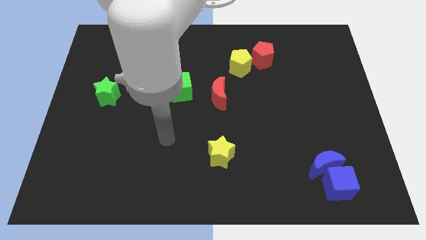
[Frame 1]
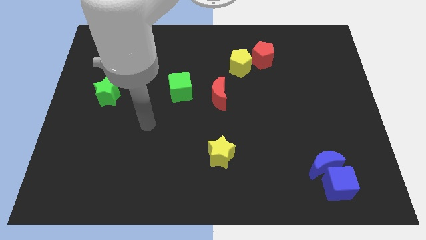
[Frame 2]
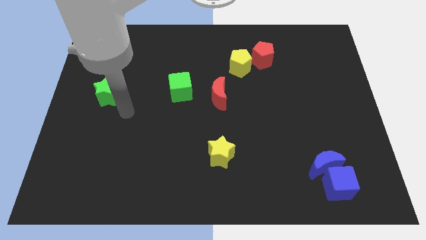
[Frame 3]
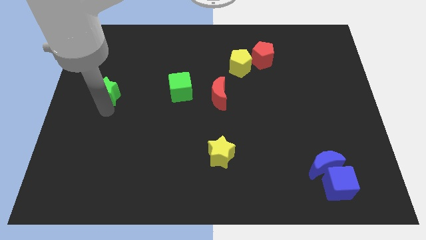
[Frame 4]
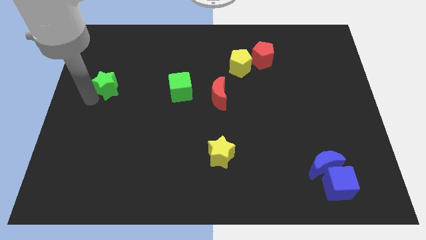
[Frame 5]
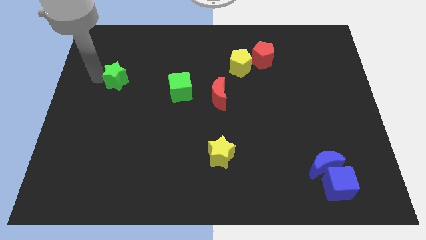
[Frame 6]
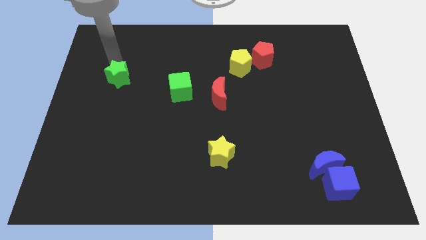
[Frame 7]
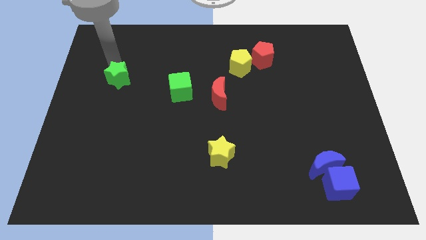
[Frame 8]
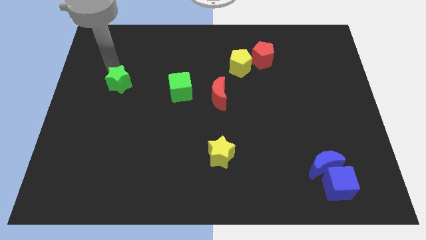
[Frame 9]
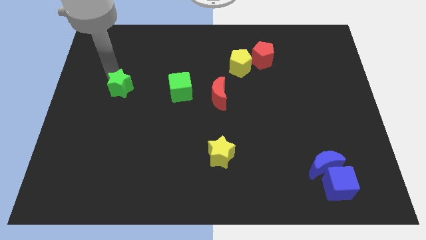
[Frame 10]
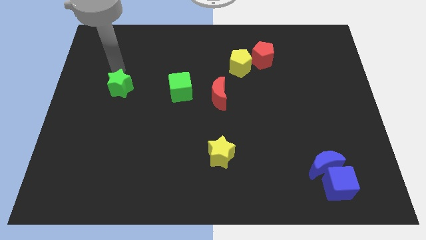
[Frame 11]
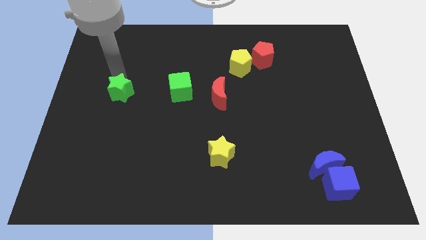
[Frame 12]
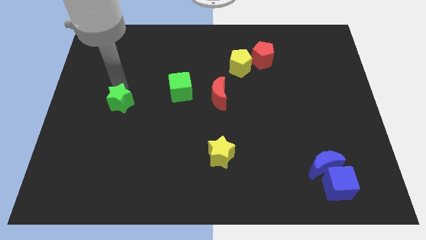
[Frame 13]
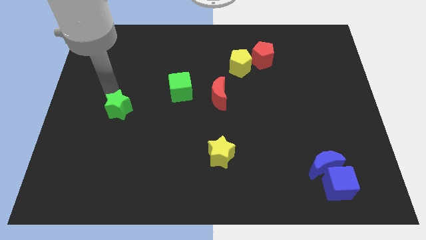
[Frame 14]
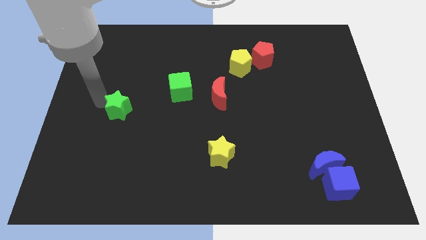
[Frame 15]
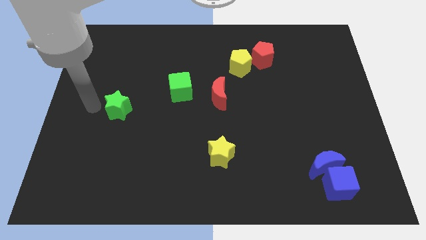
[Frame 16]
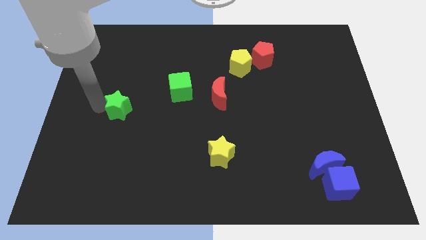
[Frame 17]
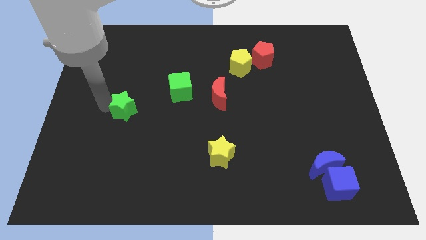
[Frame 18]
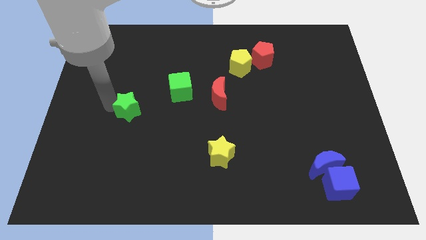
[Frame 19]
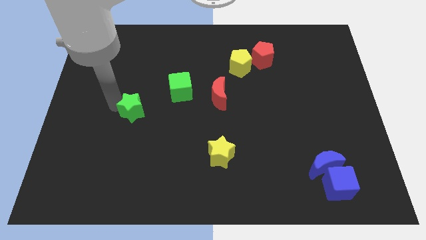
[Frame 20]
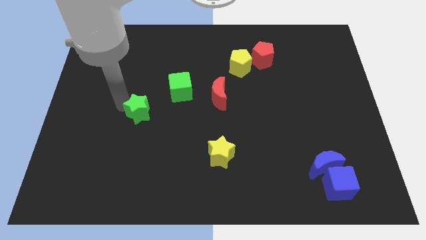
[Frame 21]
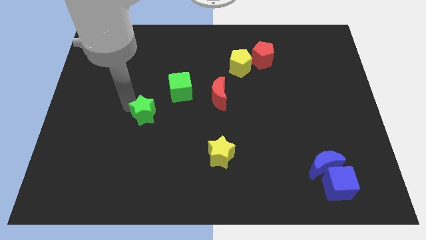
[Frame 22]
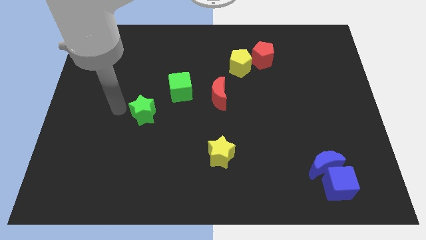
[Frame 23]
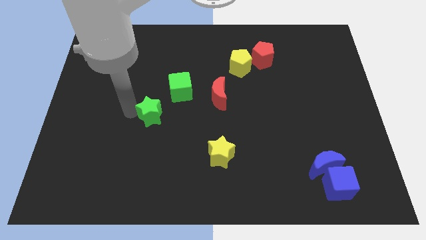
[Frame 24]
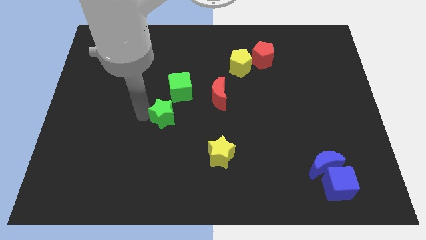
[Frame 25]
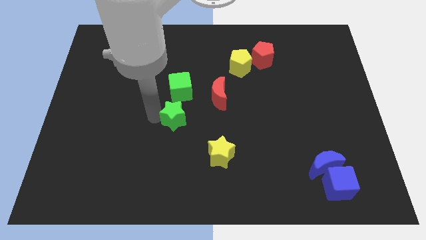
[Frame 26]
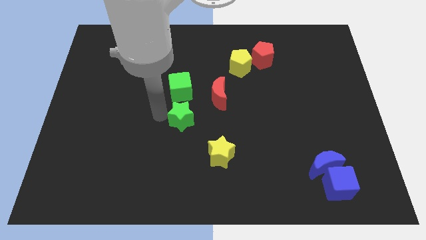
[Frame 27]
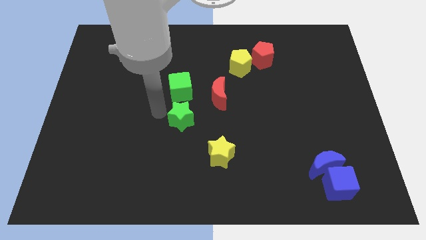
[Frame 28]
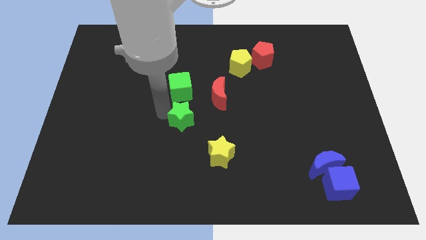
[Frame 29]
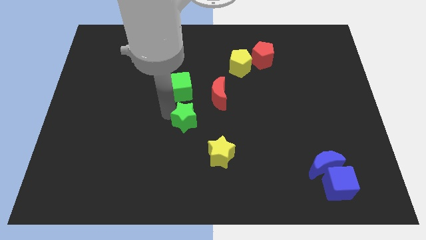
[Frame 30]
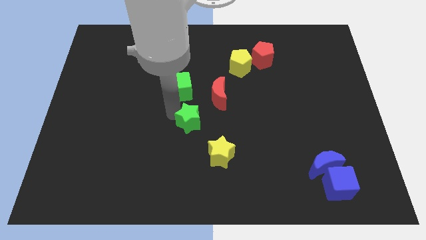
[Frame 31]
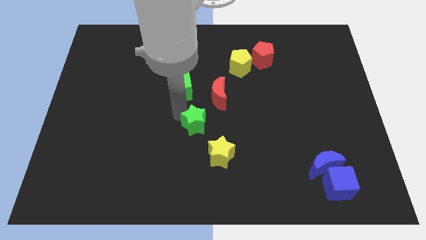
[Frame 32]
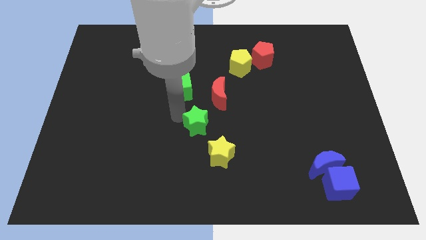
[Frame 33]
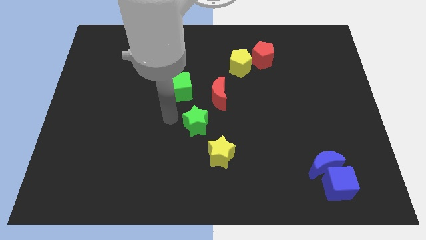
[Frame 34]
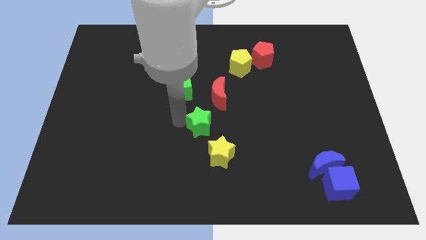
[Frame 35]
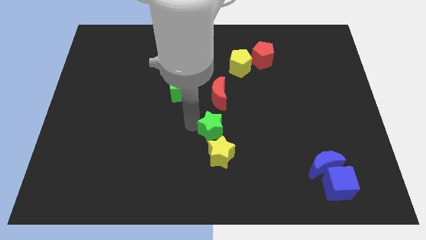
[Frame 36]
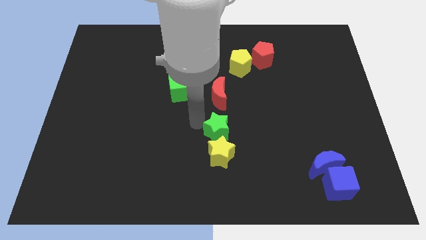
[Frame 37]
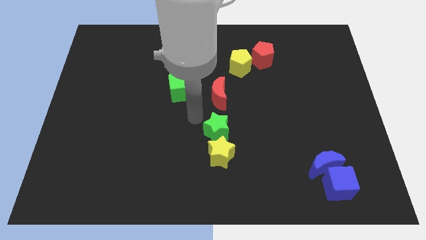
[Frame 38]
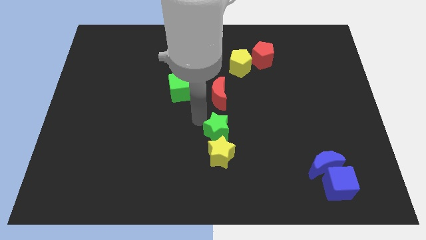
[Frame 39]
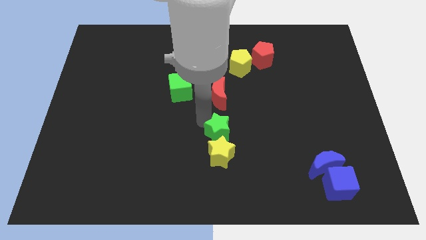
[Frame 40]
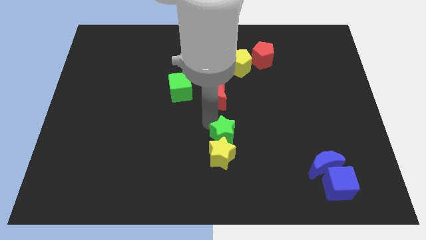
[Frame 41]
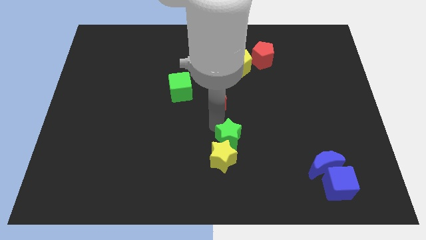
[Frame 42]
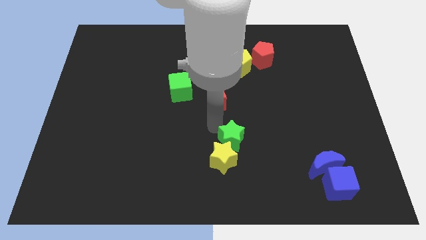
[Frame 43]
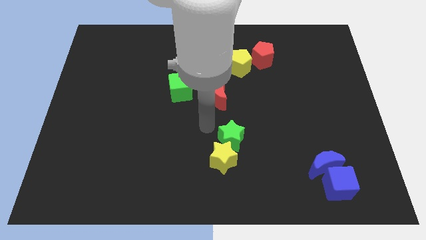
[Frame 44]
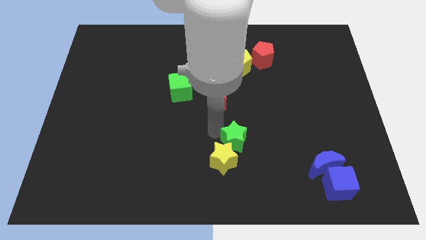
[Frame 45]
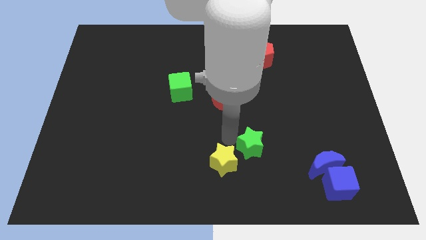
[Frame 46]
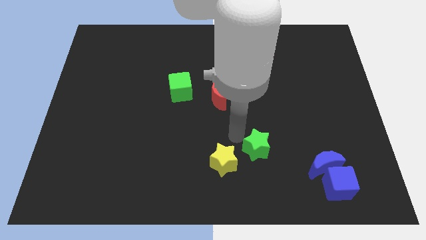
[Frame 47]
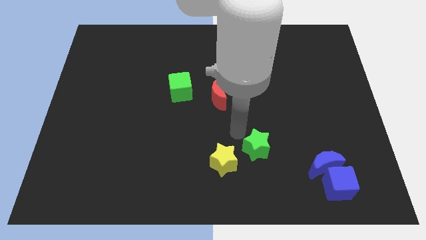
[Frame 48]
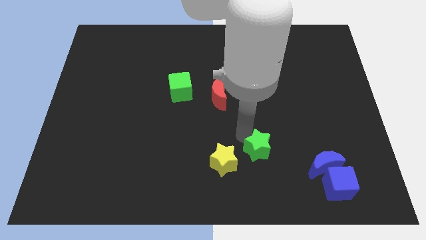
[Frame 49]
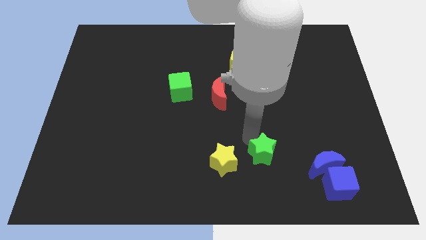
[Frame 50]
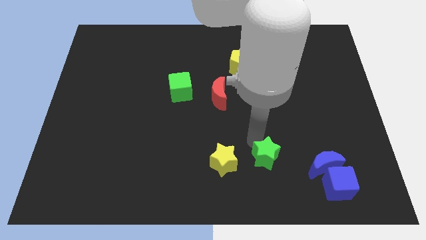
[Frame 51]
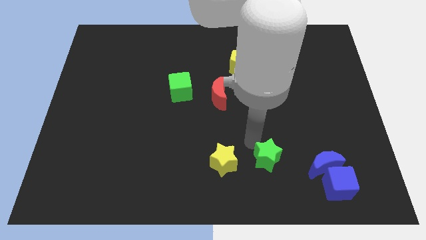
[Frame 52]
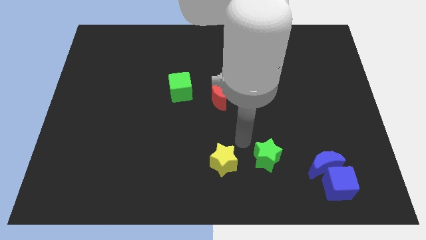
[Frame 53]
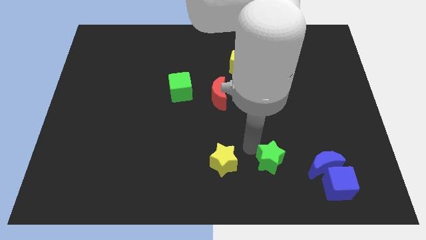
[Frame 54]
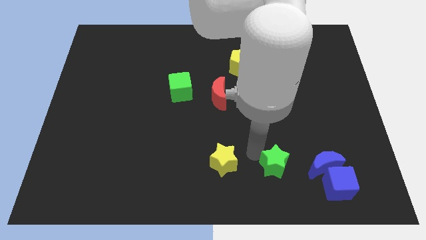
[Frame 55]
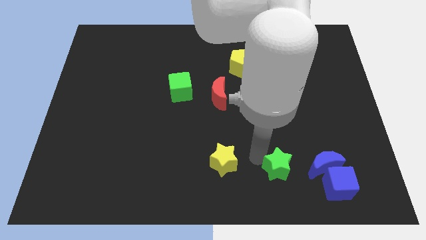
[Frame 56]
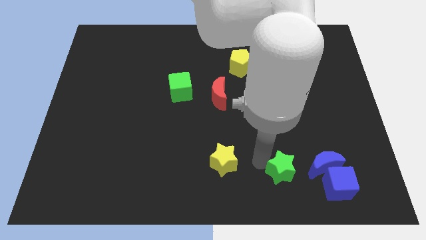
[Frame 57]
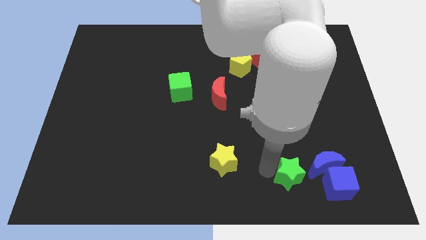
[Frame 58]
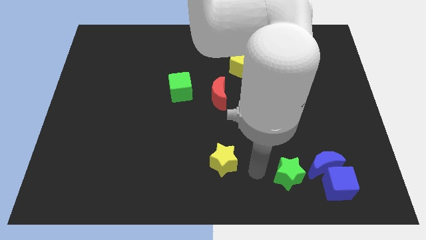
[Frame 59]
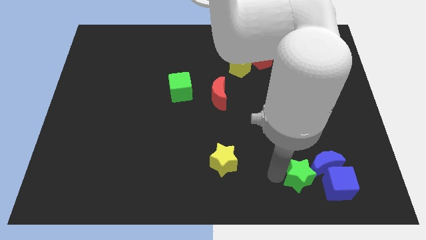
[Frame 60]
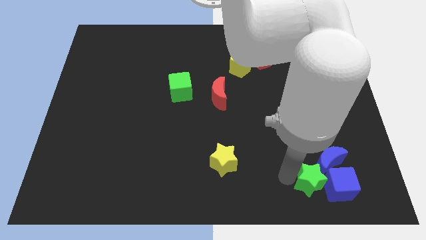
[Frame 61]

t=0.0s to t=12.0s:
put the green star towards the blue cube

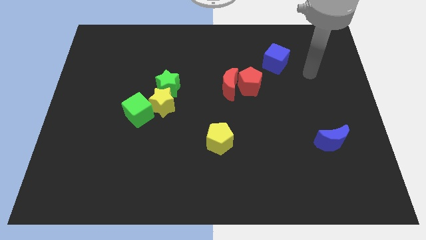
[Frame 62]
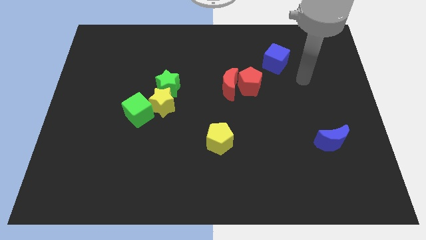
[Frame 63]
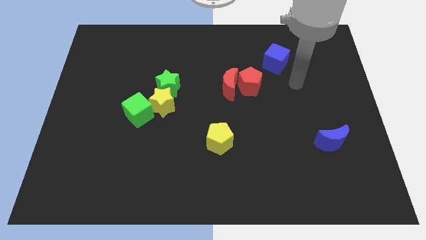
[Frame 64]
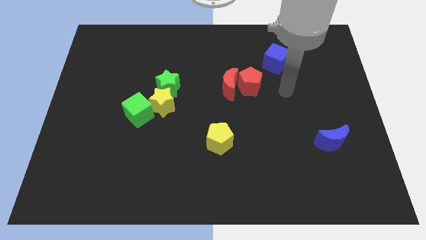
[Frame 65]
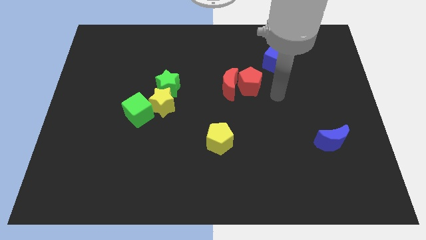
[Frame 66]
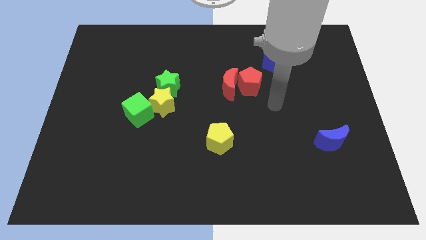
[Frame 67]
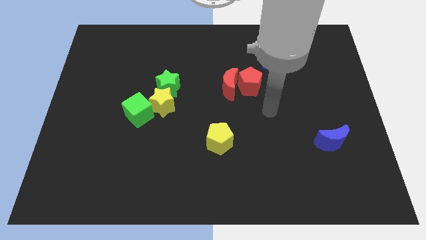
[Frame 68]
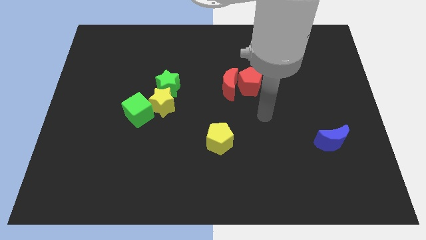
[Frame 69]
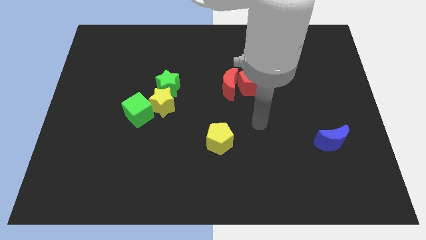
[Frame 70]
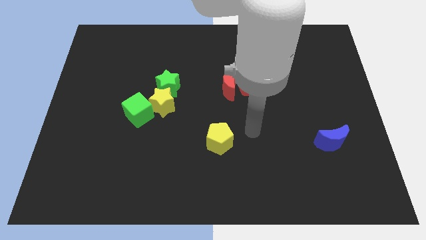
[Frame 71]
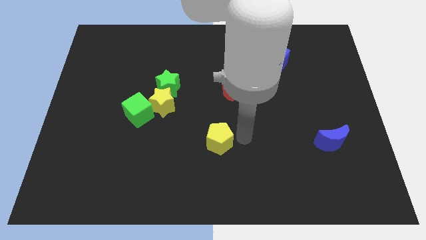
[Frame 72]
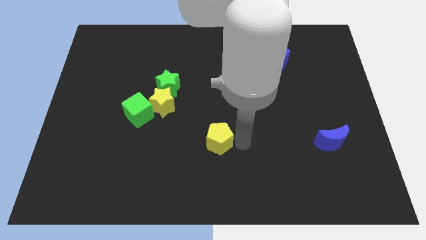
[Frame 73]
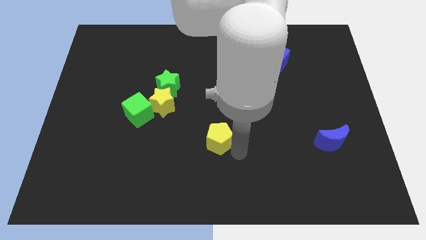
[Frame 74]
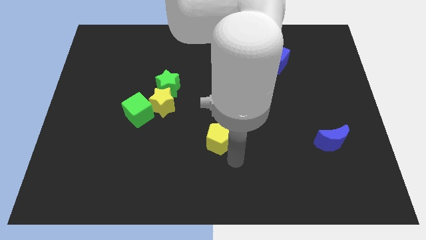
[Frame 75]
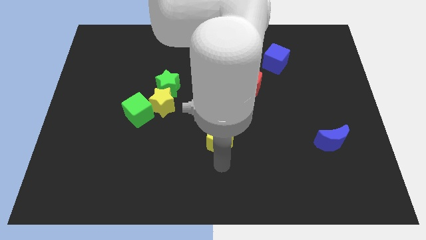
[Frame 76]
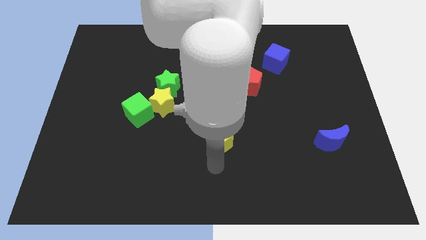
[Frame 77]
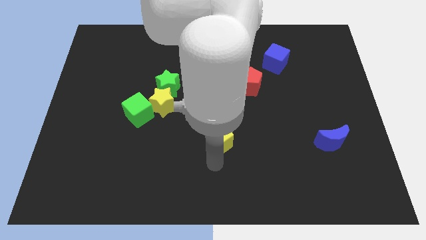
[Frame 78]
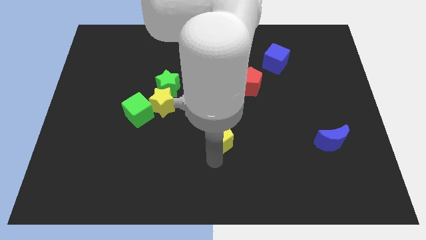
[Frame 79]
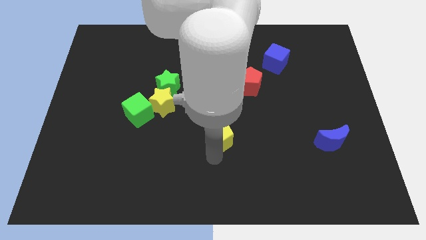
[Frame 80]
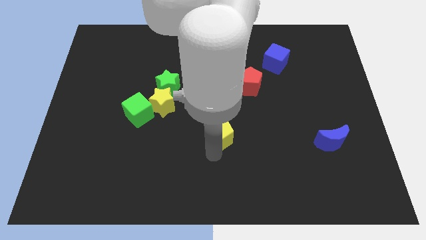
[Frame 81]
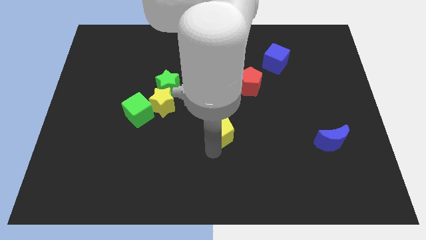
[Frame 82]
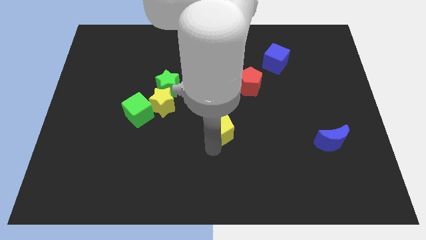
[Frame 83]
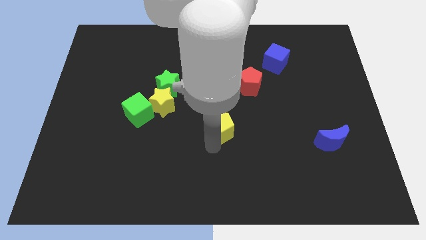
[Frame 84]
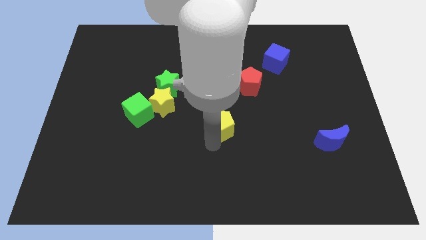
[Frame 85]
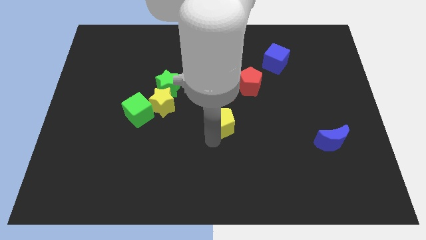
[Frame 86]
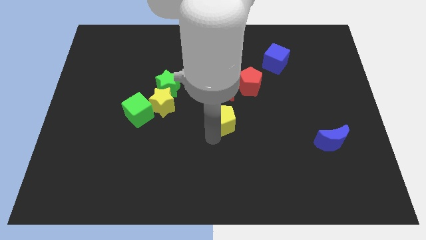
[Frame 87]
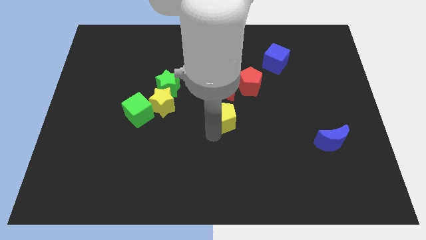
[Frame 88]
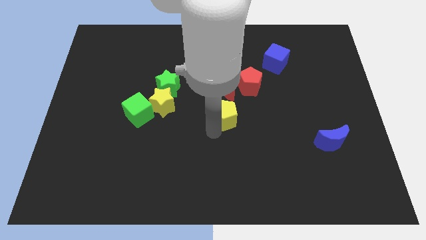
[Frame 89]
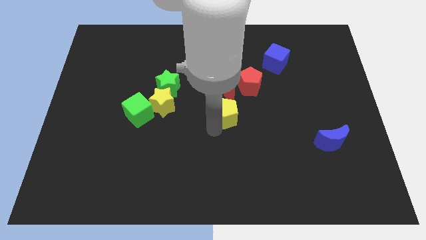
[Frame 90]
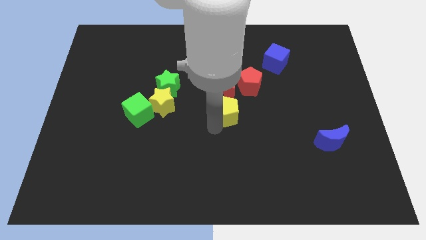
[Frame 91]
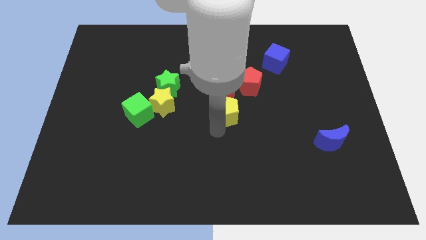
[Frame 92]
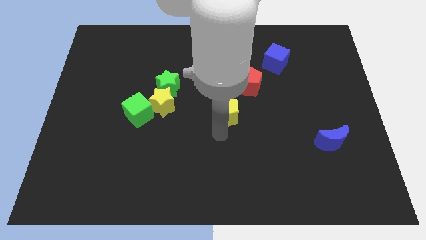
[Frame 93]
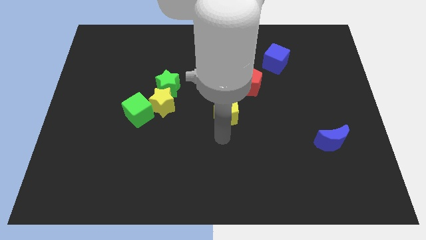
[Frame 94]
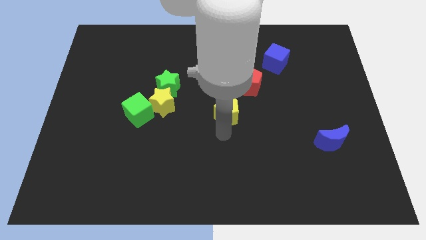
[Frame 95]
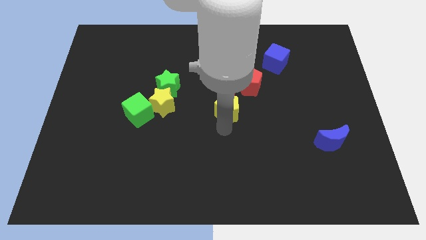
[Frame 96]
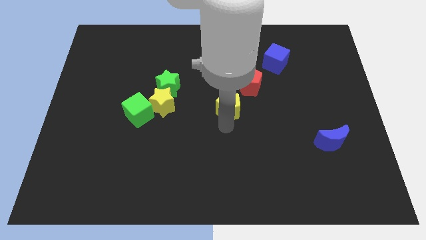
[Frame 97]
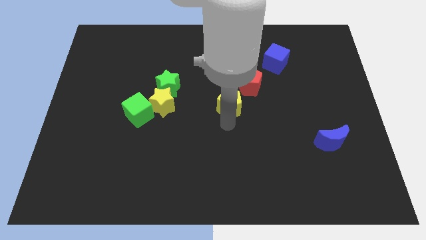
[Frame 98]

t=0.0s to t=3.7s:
put the yellow pentagon to the red moon
